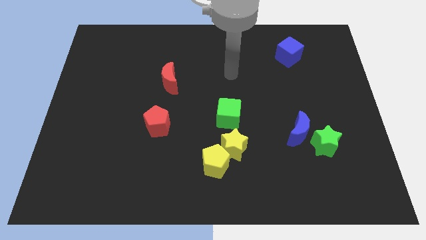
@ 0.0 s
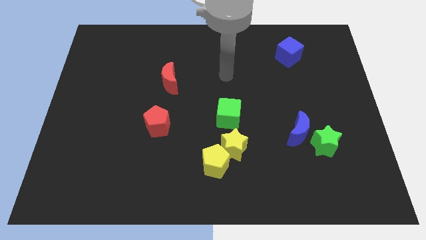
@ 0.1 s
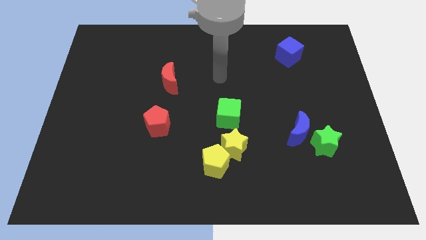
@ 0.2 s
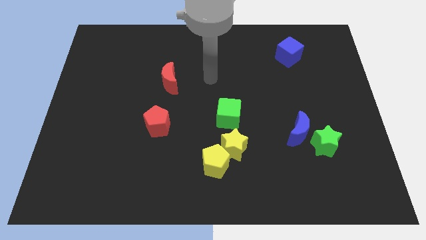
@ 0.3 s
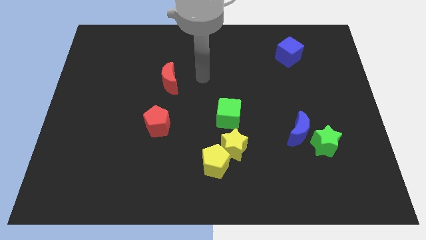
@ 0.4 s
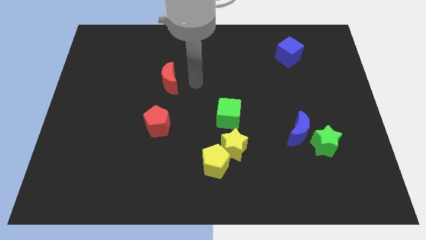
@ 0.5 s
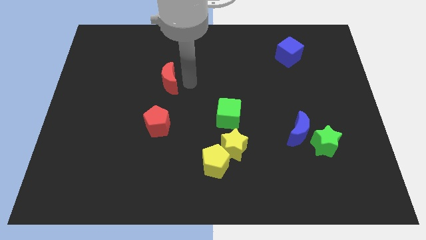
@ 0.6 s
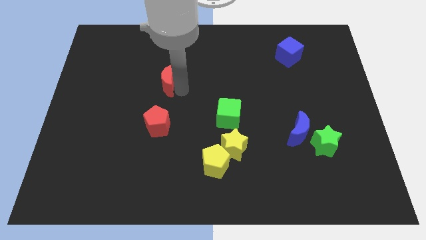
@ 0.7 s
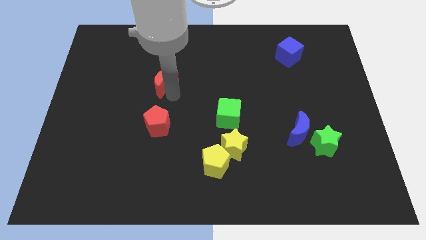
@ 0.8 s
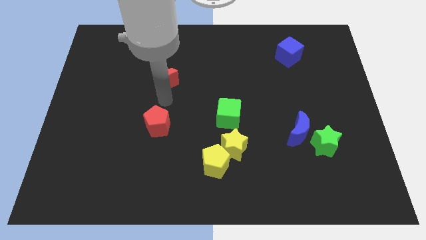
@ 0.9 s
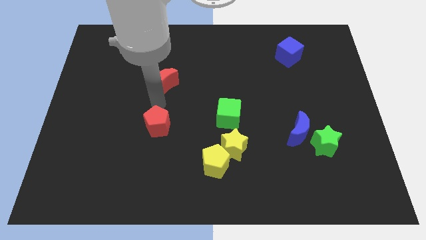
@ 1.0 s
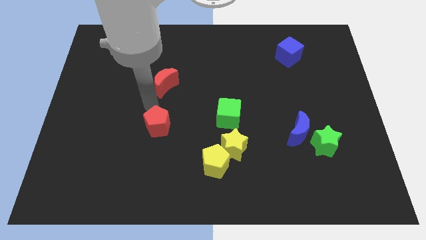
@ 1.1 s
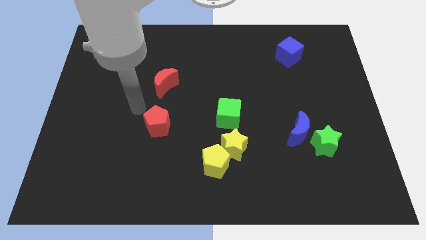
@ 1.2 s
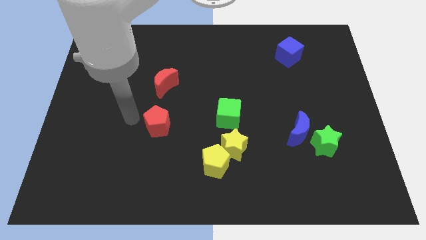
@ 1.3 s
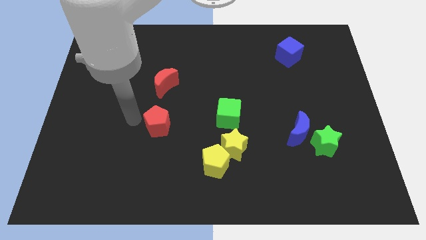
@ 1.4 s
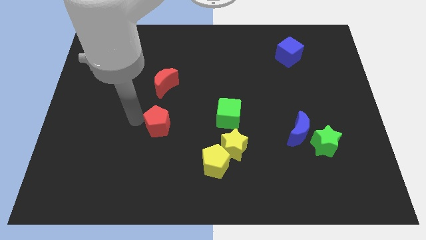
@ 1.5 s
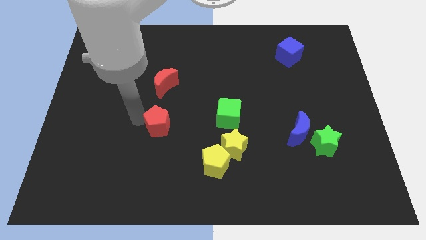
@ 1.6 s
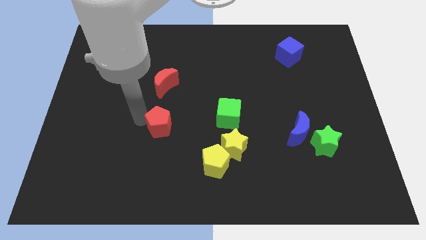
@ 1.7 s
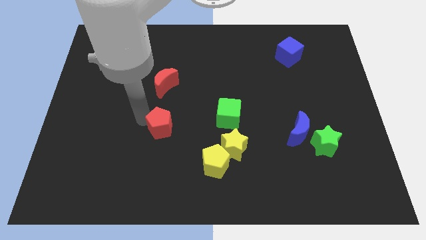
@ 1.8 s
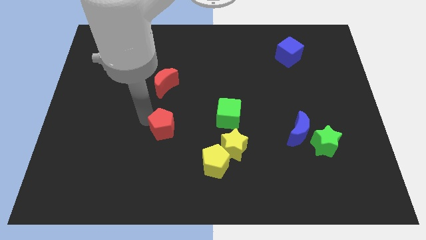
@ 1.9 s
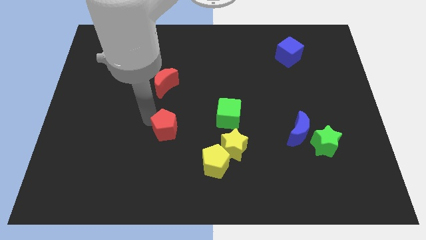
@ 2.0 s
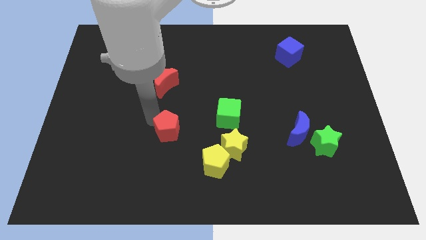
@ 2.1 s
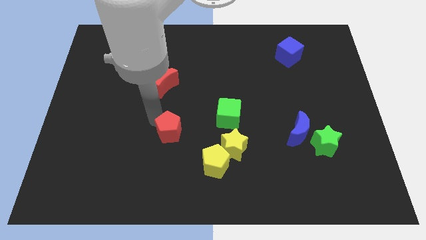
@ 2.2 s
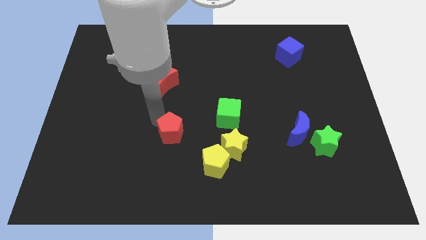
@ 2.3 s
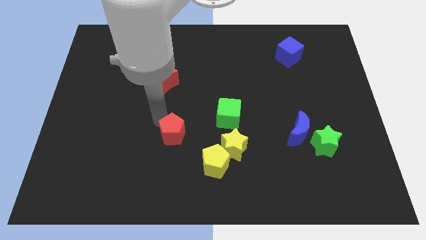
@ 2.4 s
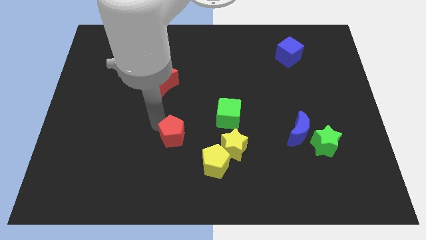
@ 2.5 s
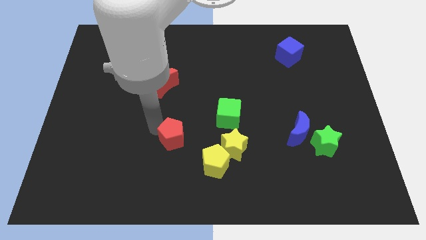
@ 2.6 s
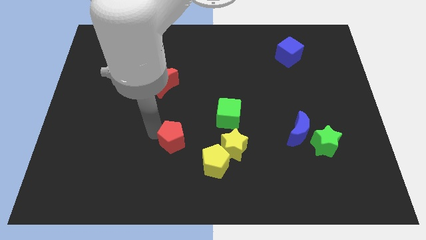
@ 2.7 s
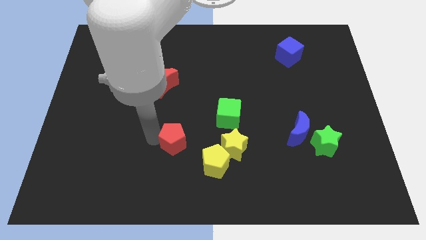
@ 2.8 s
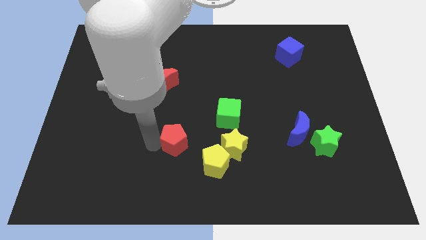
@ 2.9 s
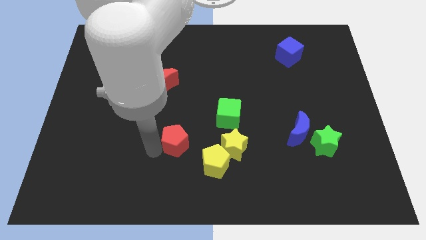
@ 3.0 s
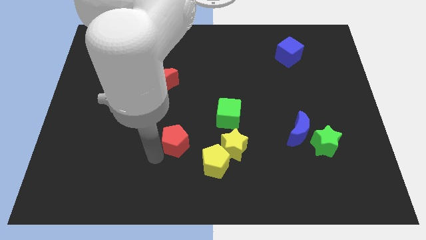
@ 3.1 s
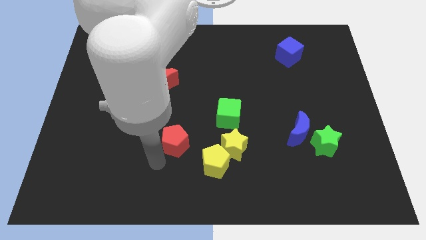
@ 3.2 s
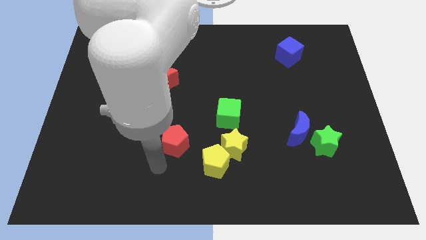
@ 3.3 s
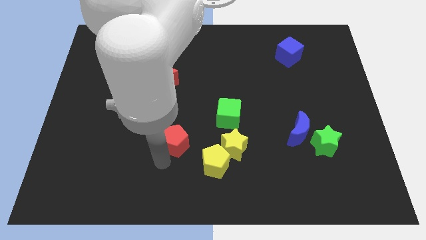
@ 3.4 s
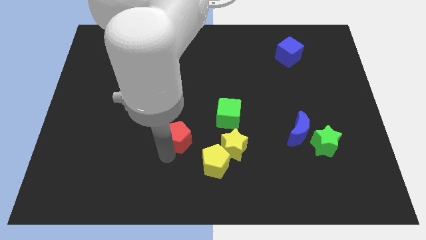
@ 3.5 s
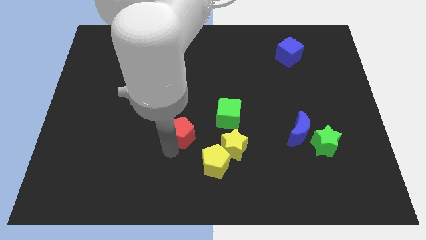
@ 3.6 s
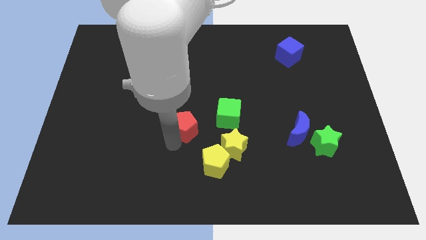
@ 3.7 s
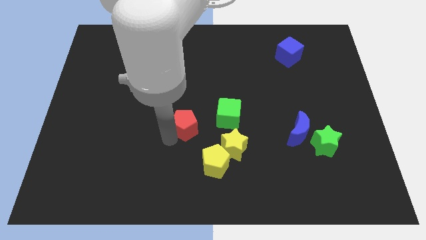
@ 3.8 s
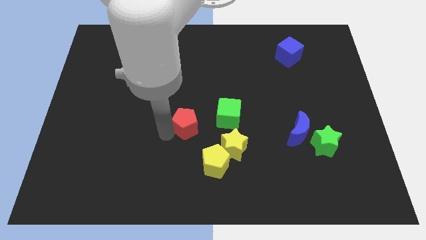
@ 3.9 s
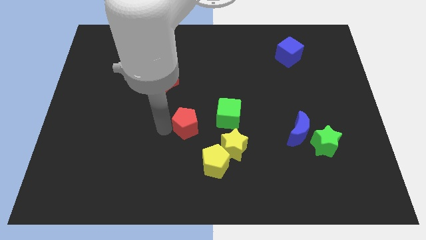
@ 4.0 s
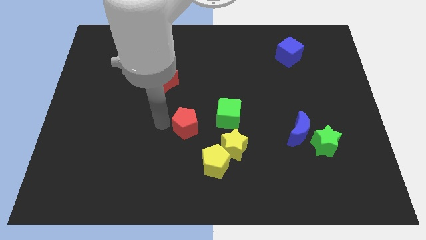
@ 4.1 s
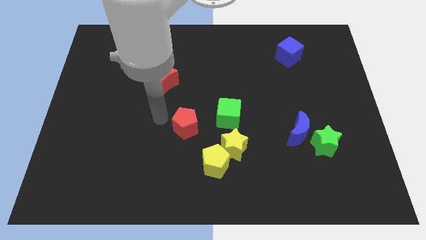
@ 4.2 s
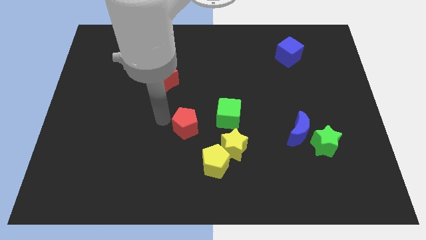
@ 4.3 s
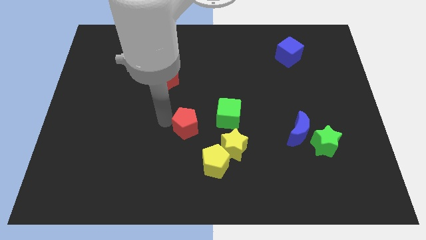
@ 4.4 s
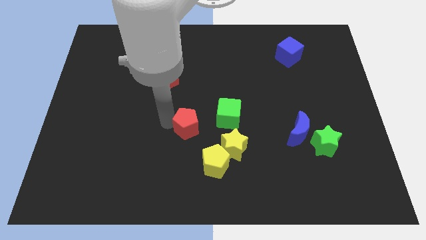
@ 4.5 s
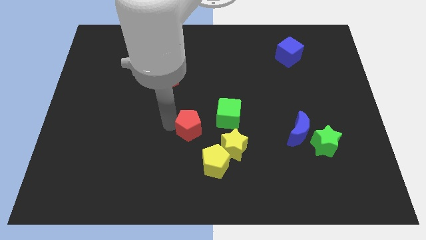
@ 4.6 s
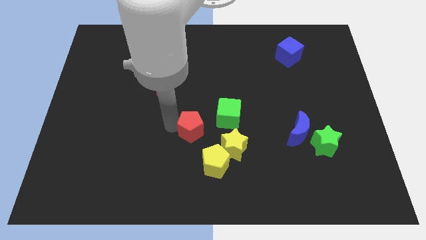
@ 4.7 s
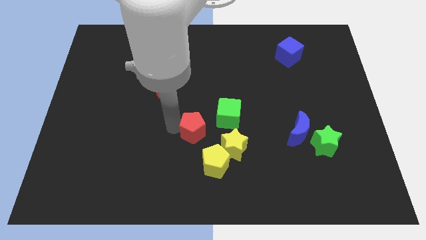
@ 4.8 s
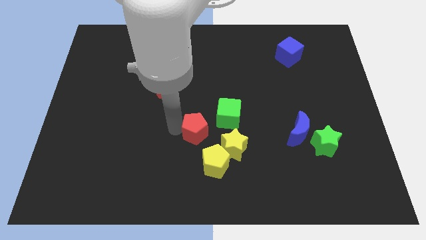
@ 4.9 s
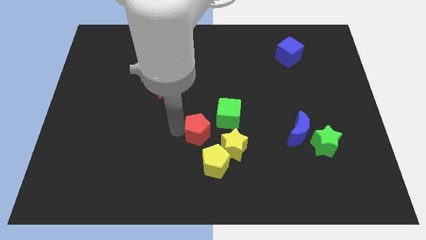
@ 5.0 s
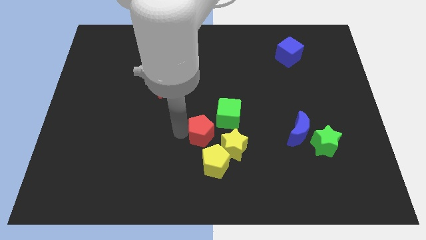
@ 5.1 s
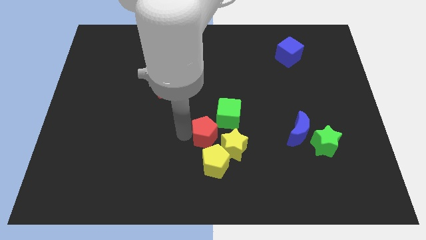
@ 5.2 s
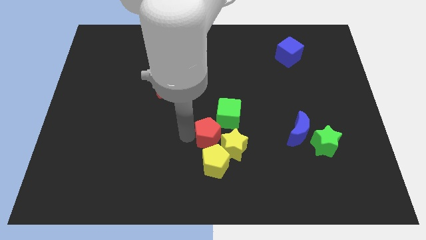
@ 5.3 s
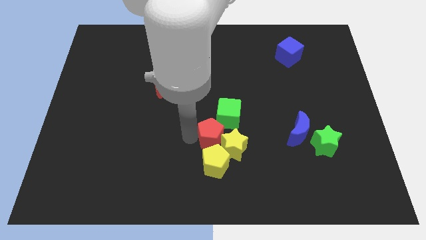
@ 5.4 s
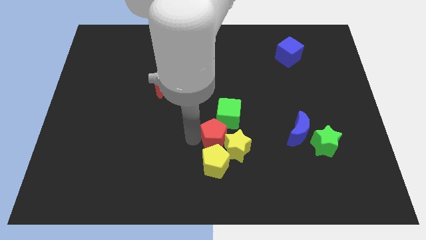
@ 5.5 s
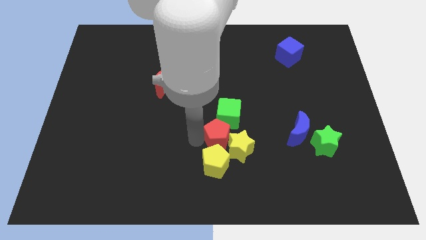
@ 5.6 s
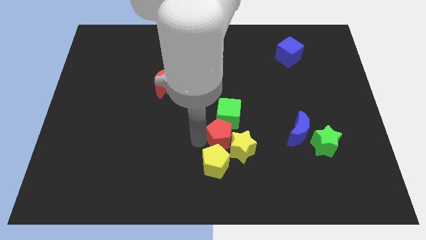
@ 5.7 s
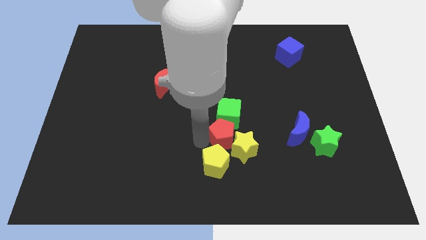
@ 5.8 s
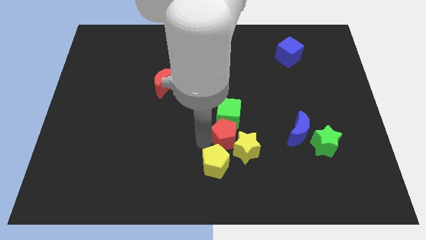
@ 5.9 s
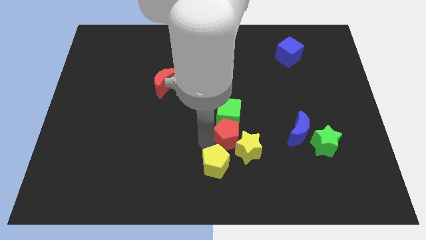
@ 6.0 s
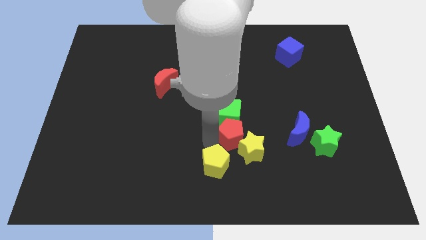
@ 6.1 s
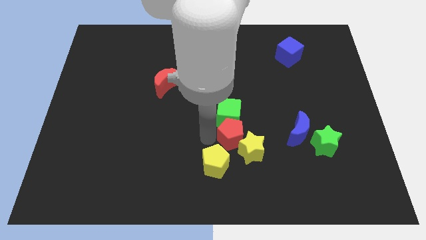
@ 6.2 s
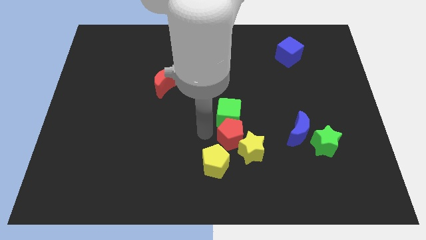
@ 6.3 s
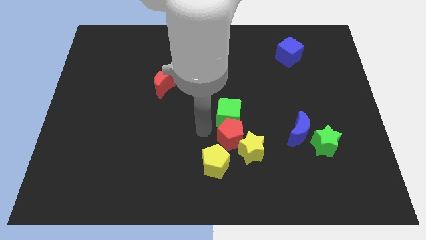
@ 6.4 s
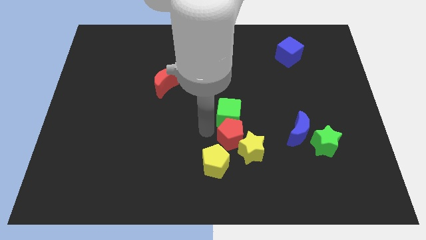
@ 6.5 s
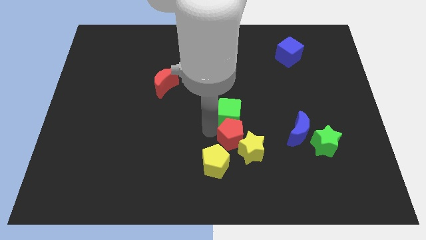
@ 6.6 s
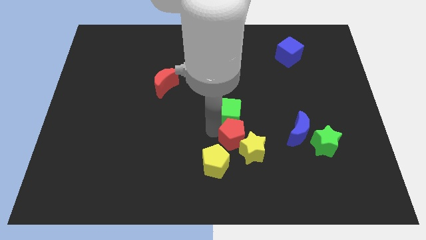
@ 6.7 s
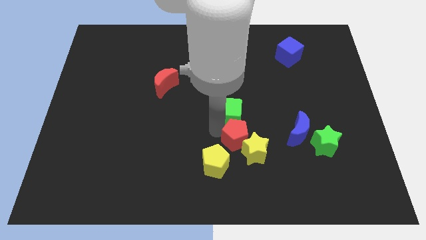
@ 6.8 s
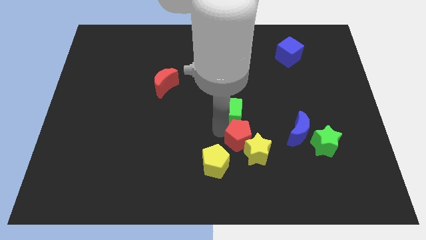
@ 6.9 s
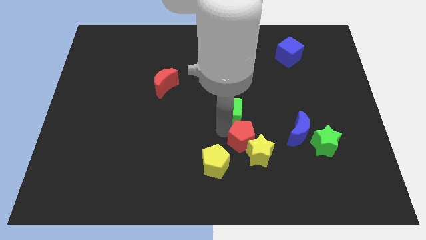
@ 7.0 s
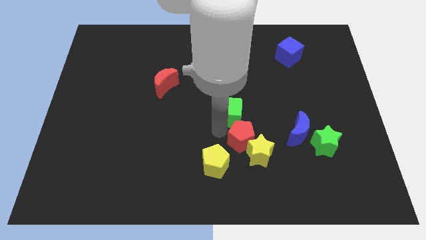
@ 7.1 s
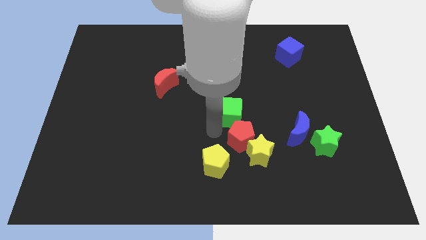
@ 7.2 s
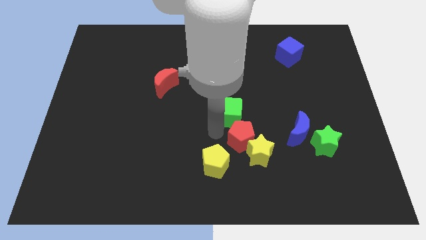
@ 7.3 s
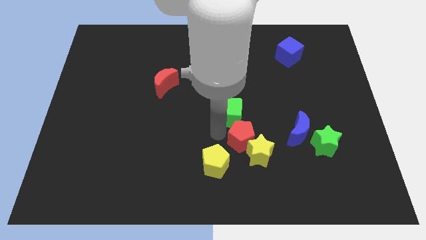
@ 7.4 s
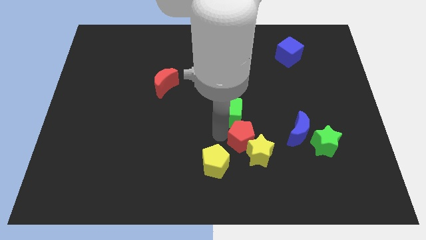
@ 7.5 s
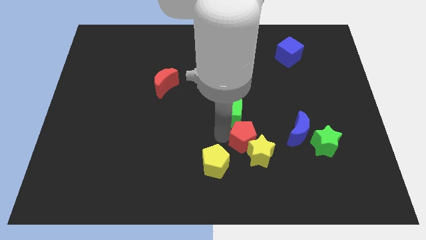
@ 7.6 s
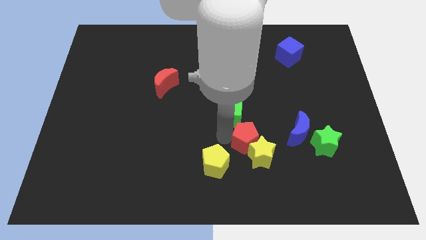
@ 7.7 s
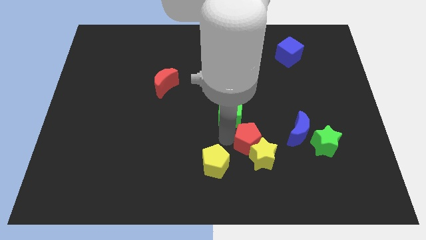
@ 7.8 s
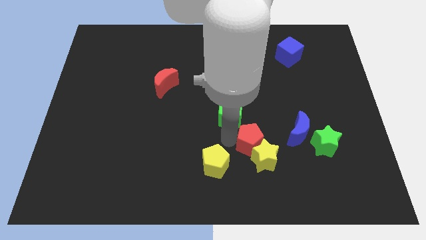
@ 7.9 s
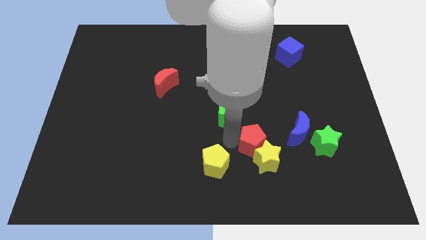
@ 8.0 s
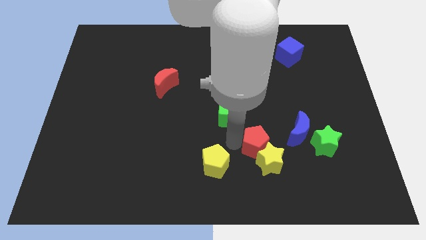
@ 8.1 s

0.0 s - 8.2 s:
move the red pentagon diagonally down and to the left of the blue moon
